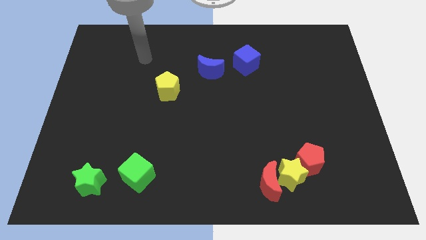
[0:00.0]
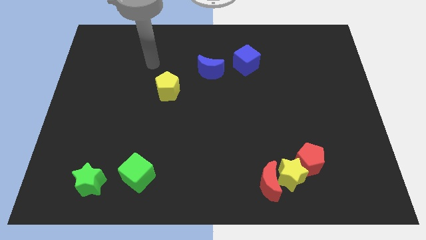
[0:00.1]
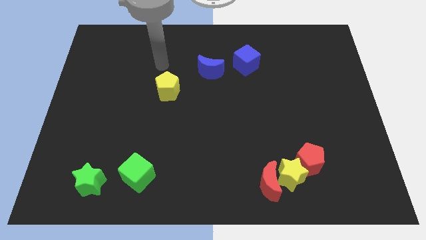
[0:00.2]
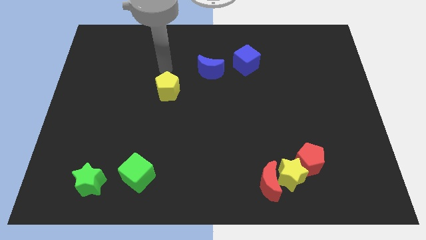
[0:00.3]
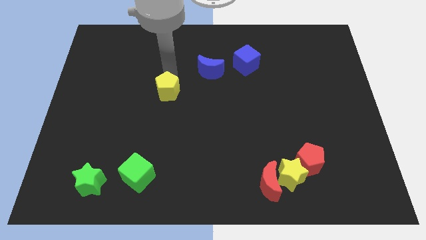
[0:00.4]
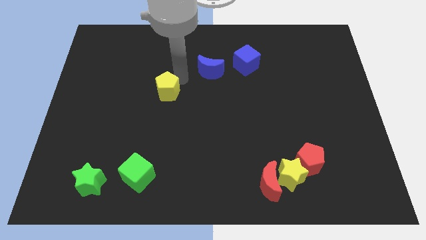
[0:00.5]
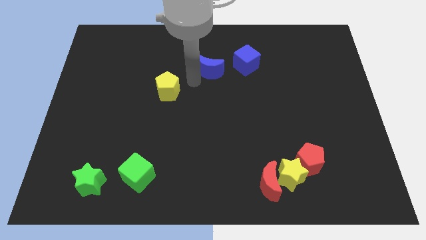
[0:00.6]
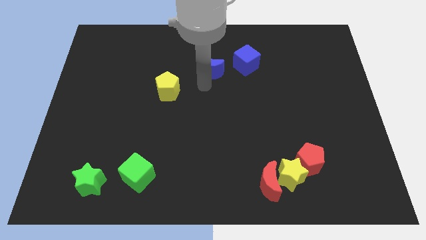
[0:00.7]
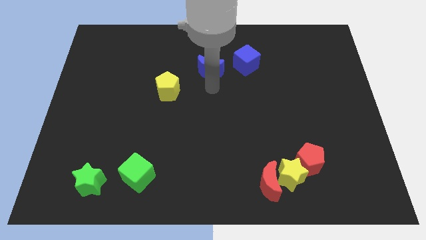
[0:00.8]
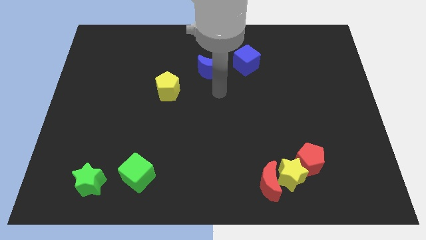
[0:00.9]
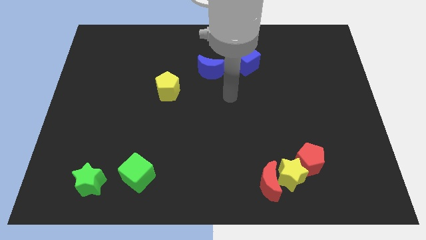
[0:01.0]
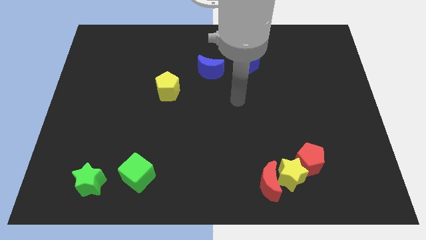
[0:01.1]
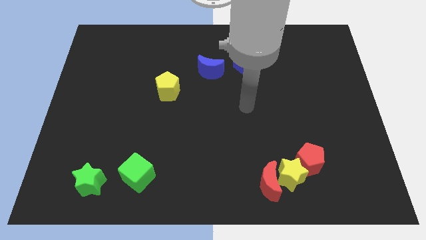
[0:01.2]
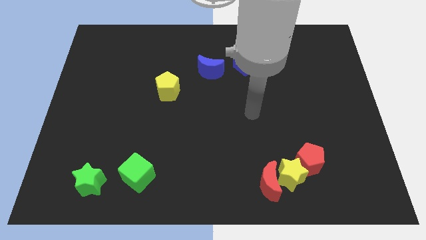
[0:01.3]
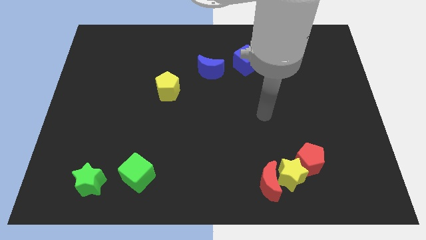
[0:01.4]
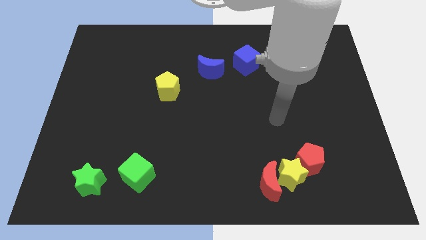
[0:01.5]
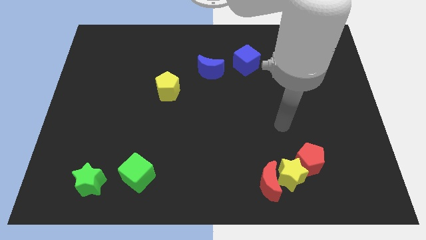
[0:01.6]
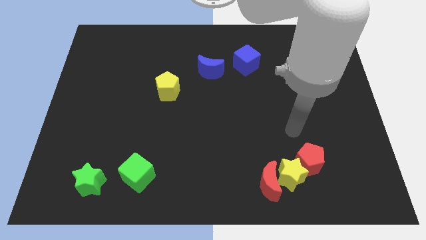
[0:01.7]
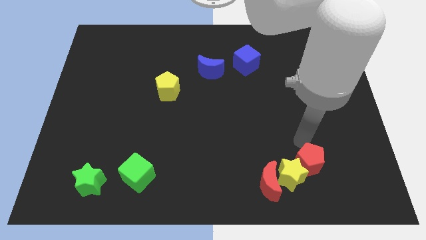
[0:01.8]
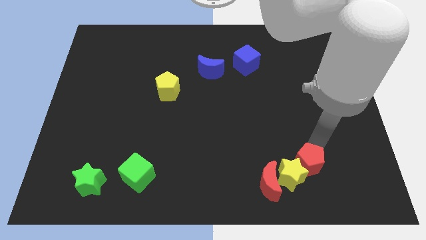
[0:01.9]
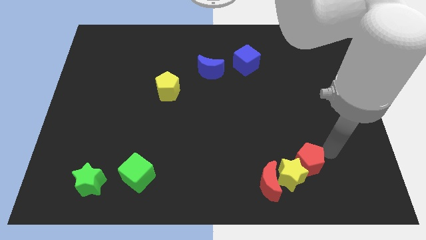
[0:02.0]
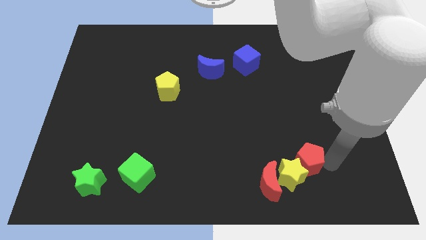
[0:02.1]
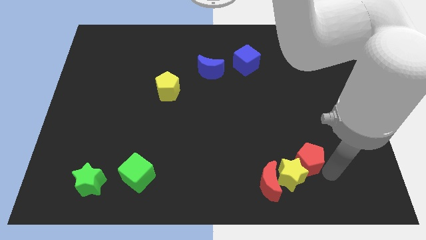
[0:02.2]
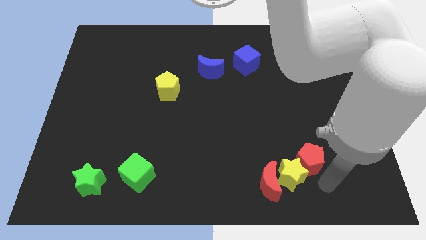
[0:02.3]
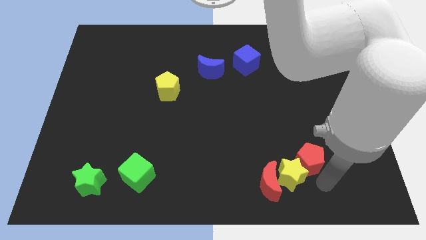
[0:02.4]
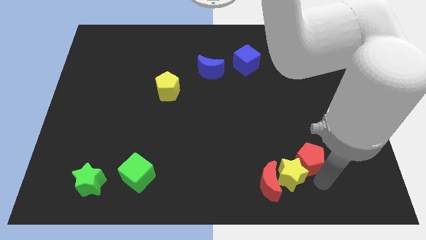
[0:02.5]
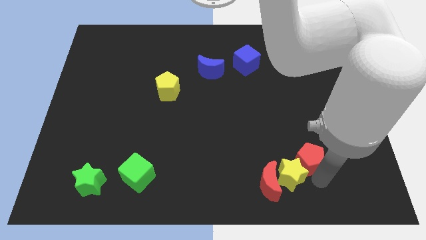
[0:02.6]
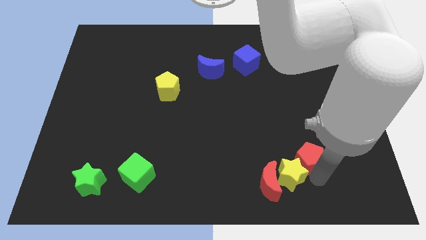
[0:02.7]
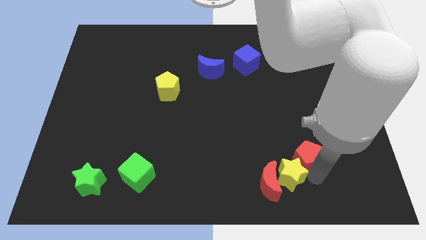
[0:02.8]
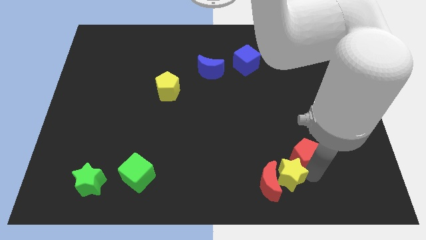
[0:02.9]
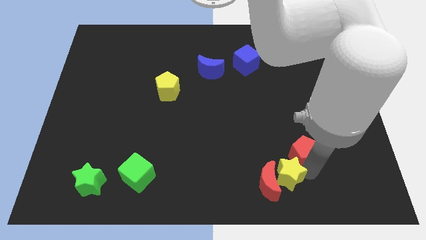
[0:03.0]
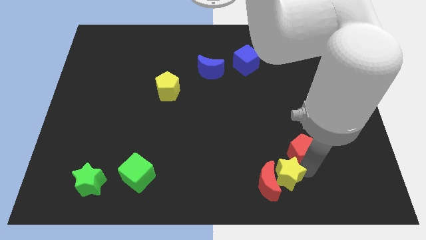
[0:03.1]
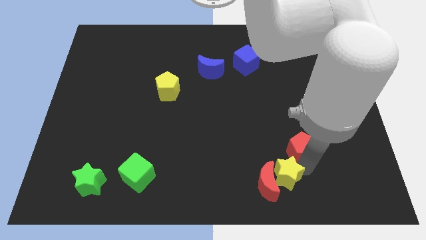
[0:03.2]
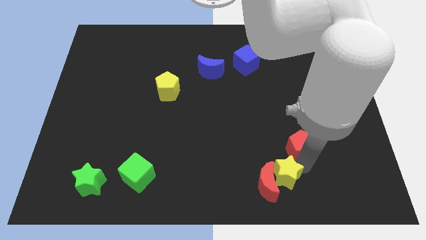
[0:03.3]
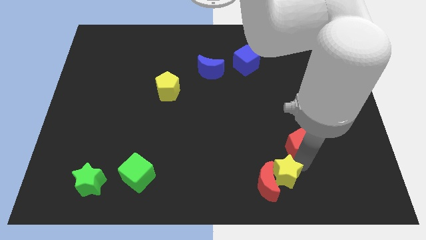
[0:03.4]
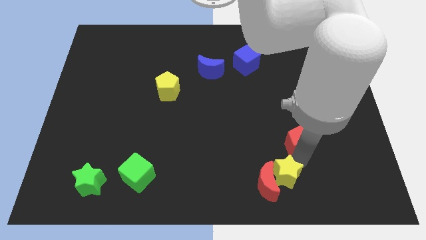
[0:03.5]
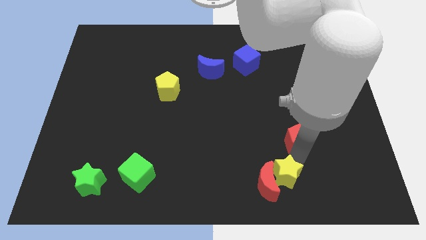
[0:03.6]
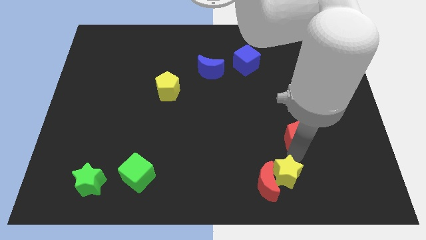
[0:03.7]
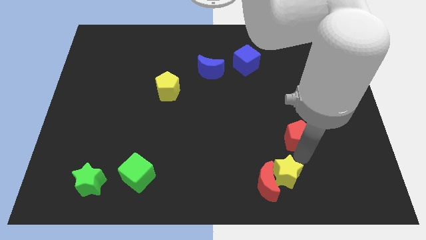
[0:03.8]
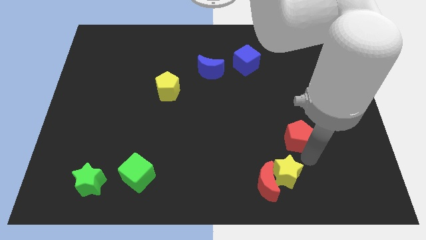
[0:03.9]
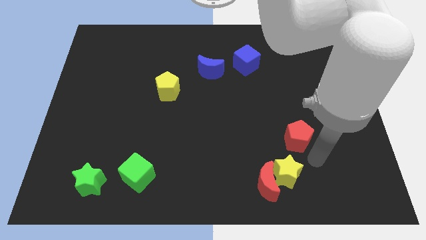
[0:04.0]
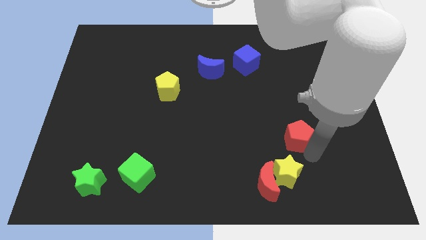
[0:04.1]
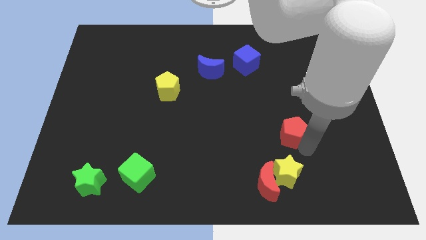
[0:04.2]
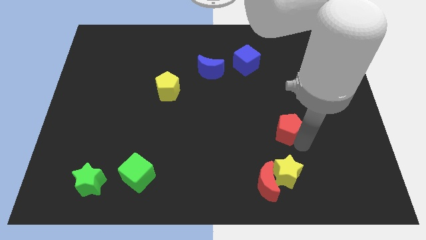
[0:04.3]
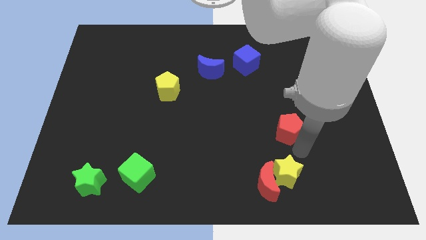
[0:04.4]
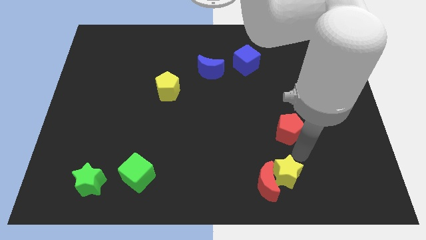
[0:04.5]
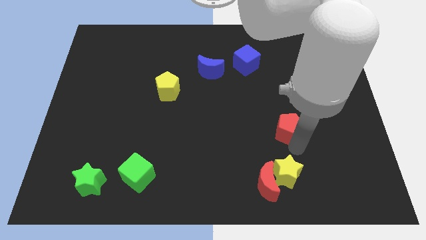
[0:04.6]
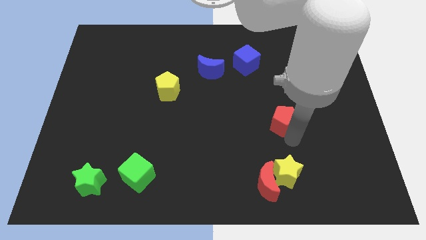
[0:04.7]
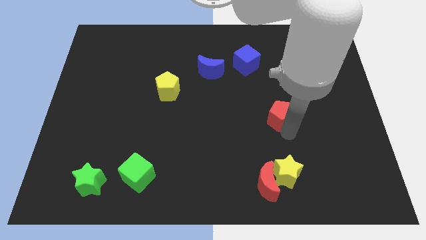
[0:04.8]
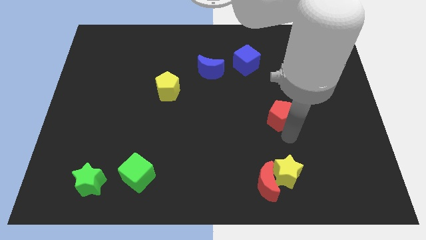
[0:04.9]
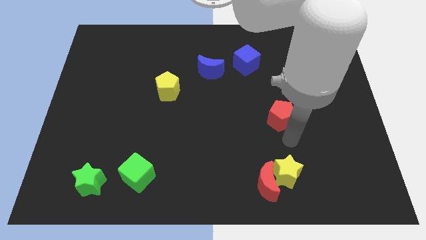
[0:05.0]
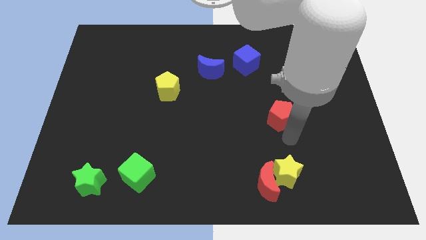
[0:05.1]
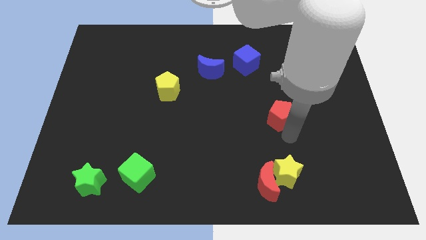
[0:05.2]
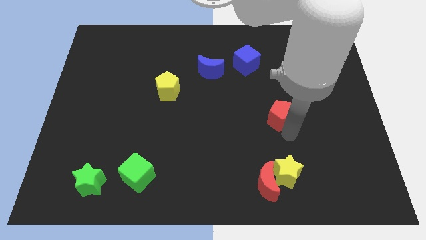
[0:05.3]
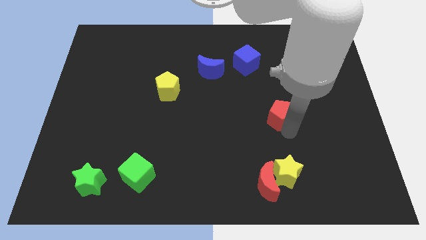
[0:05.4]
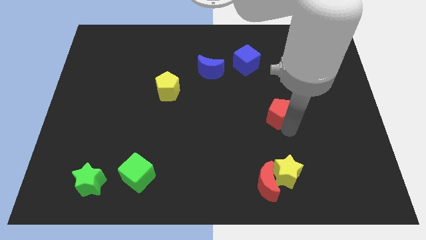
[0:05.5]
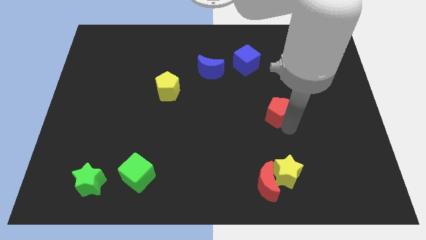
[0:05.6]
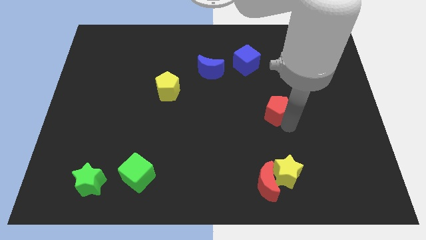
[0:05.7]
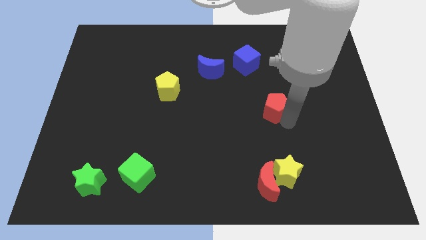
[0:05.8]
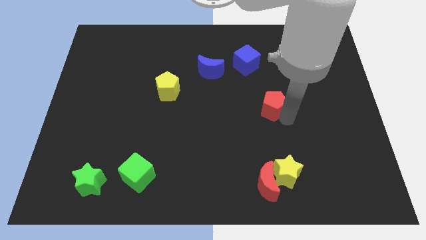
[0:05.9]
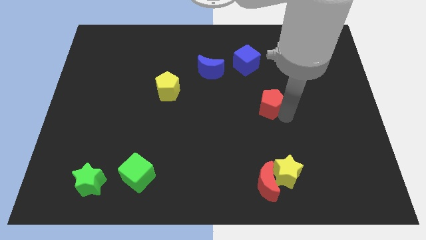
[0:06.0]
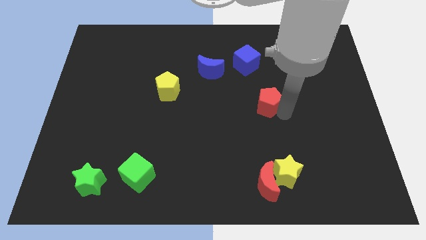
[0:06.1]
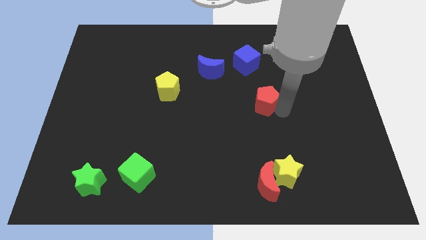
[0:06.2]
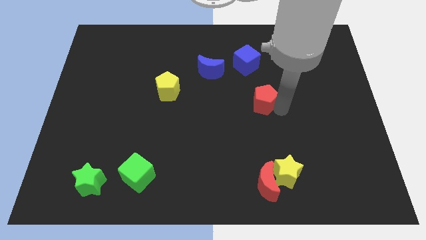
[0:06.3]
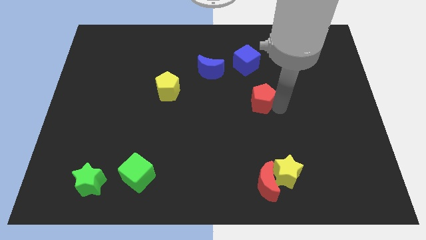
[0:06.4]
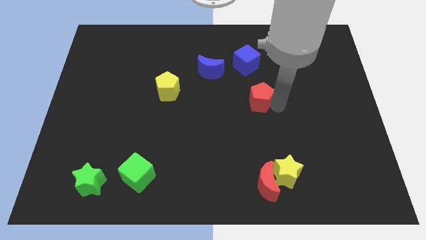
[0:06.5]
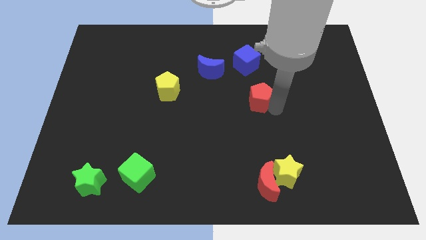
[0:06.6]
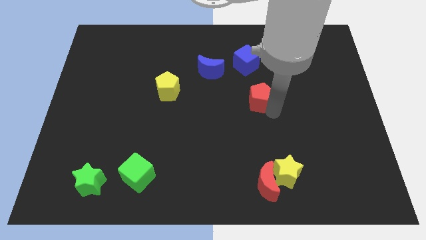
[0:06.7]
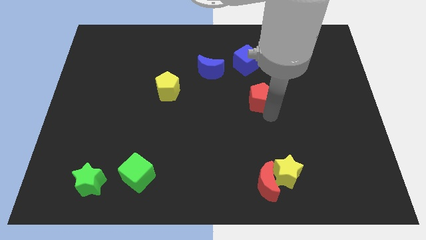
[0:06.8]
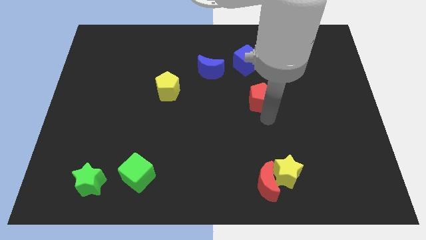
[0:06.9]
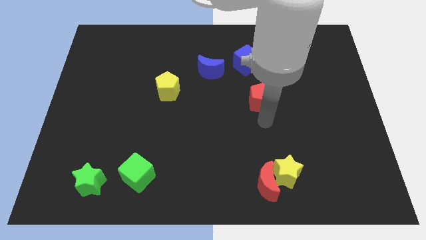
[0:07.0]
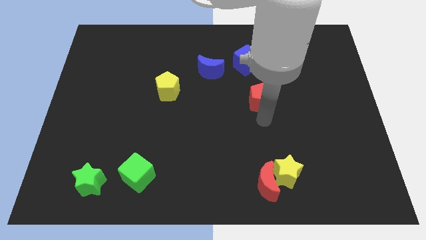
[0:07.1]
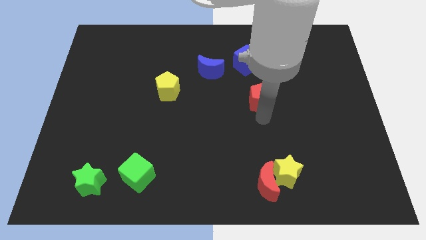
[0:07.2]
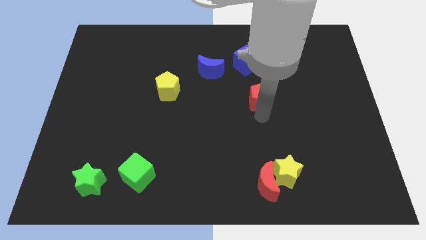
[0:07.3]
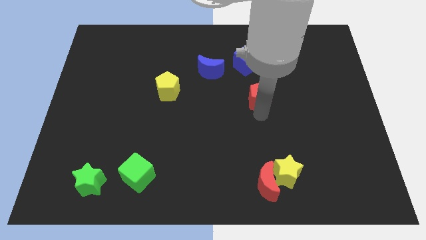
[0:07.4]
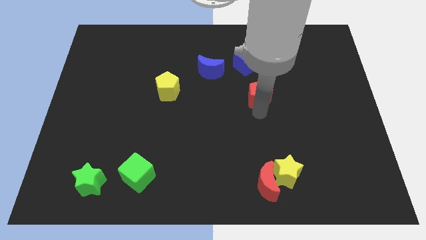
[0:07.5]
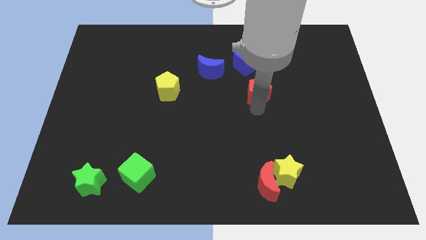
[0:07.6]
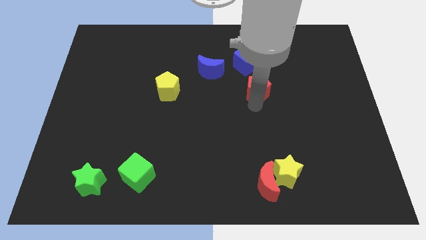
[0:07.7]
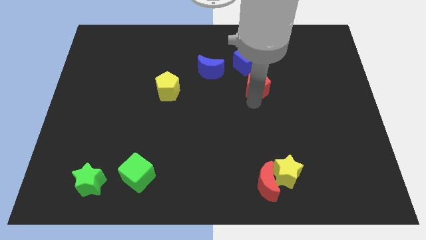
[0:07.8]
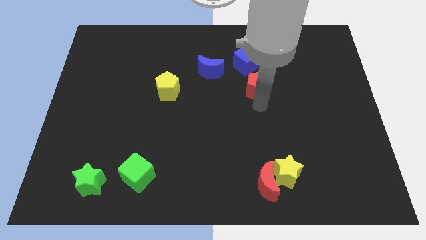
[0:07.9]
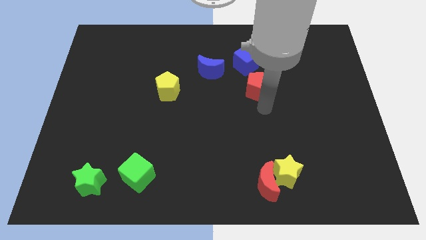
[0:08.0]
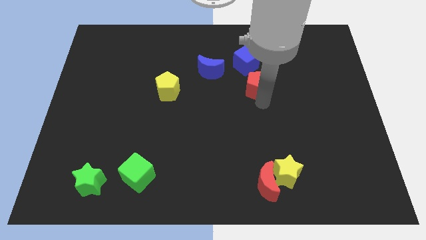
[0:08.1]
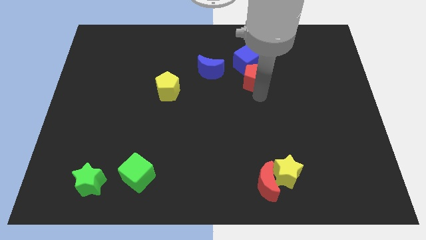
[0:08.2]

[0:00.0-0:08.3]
move the red pentagon next to the blue cube
